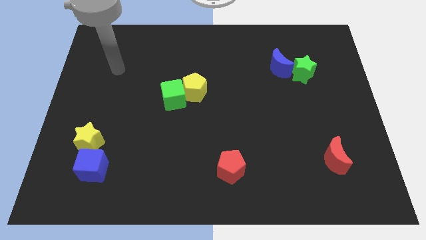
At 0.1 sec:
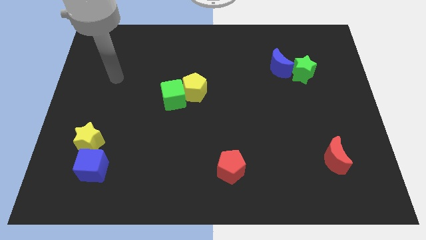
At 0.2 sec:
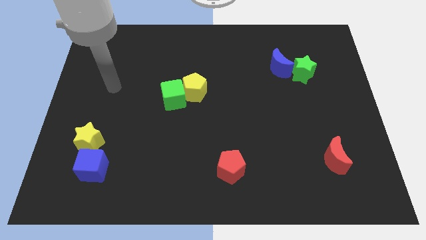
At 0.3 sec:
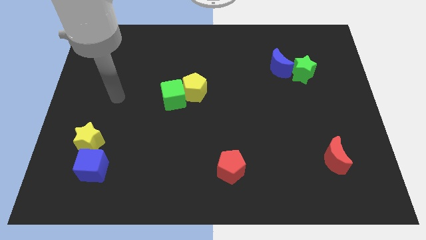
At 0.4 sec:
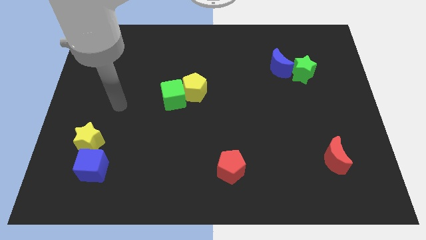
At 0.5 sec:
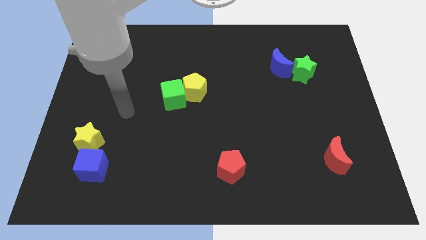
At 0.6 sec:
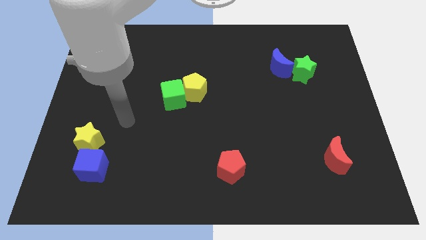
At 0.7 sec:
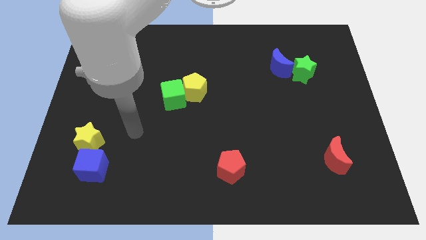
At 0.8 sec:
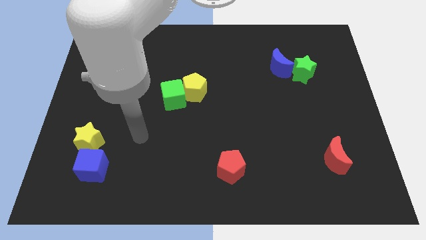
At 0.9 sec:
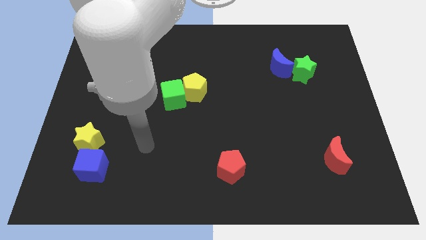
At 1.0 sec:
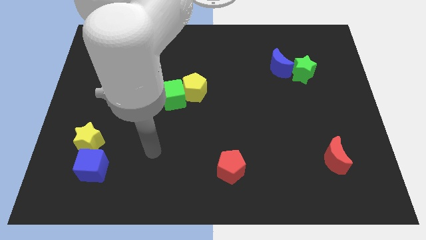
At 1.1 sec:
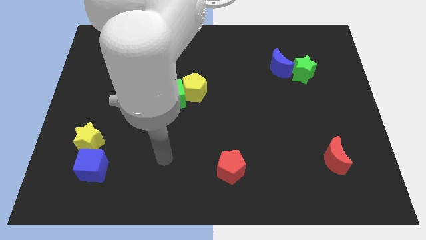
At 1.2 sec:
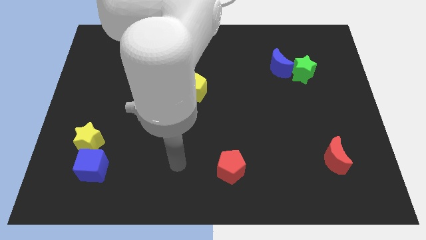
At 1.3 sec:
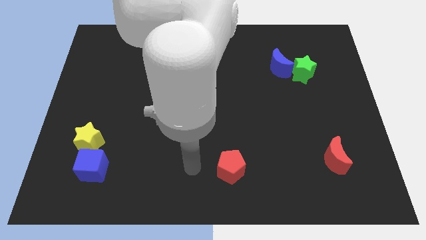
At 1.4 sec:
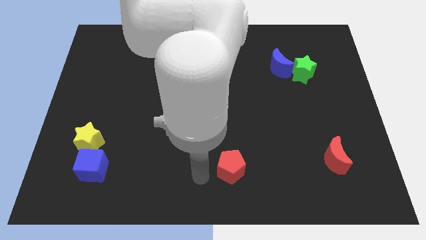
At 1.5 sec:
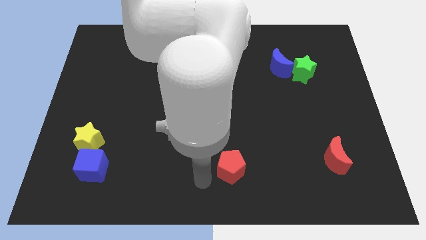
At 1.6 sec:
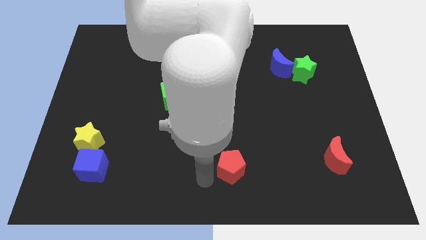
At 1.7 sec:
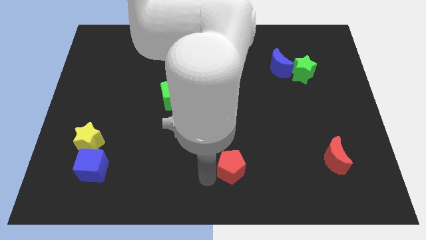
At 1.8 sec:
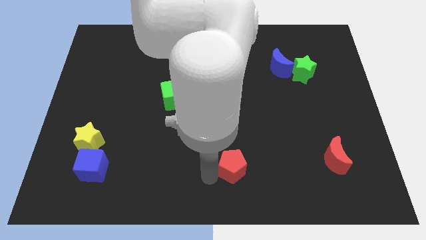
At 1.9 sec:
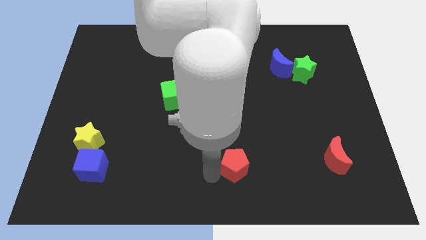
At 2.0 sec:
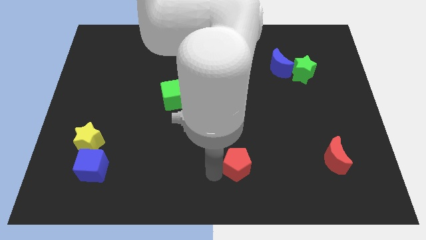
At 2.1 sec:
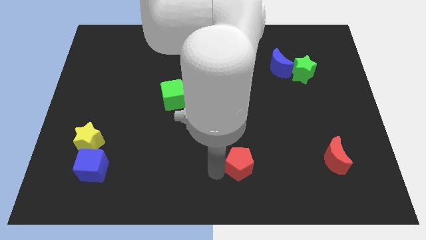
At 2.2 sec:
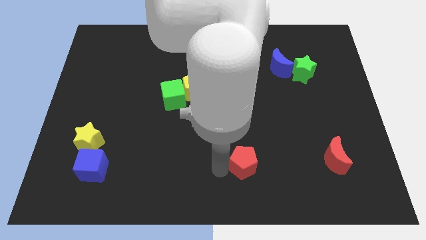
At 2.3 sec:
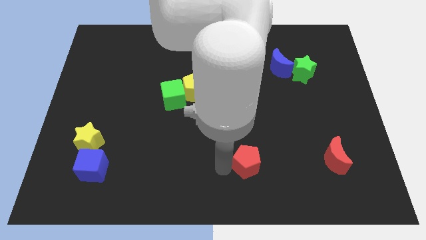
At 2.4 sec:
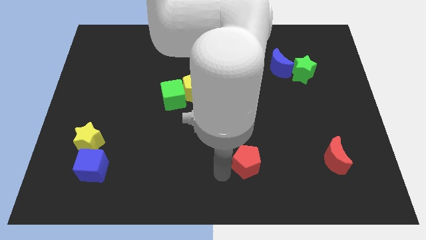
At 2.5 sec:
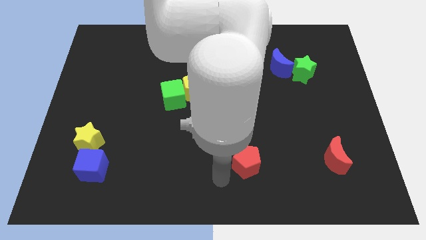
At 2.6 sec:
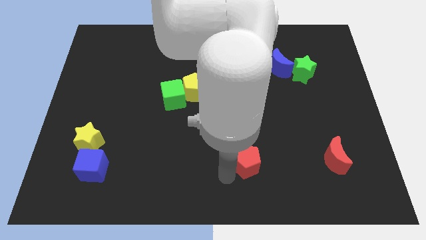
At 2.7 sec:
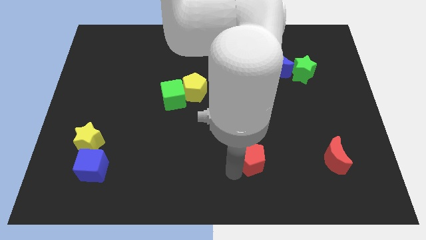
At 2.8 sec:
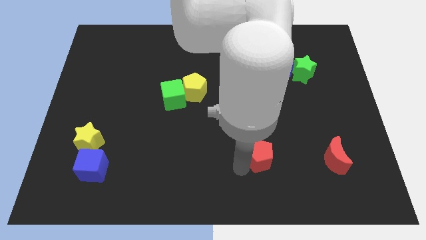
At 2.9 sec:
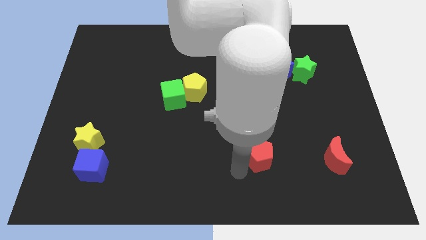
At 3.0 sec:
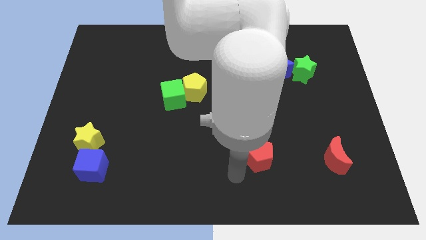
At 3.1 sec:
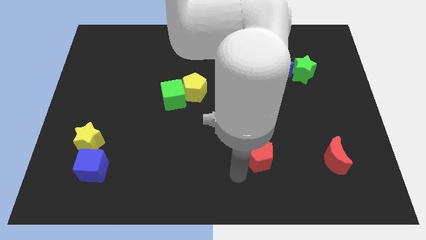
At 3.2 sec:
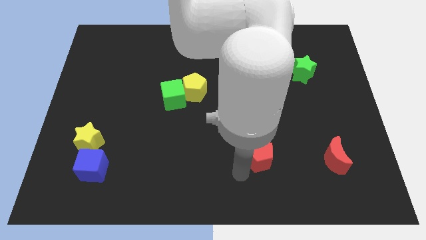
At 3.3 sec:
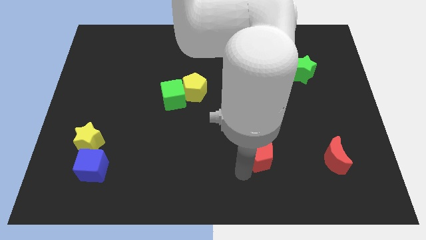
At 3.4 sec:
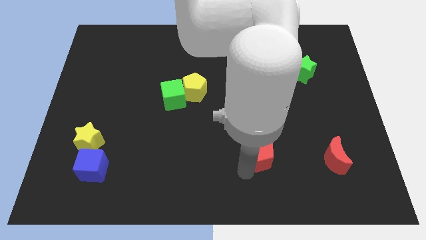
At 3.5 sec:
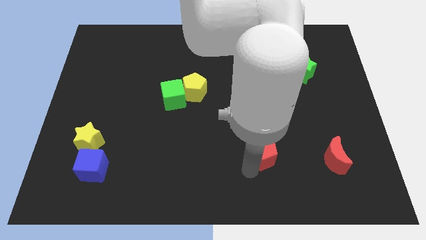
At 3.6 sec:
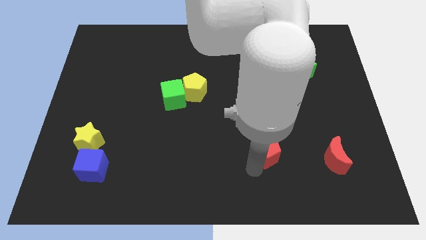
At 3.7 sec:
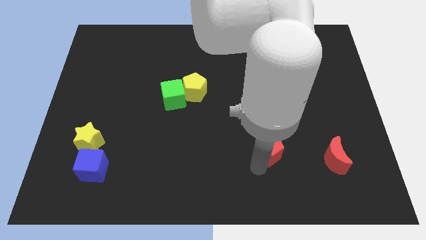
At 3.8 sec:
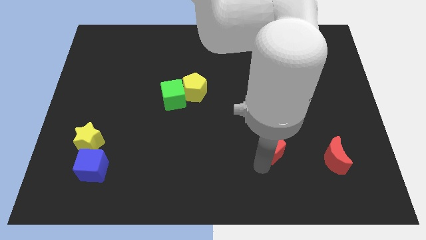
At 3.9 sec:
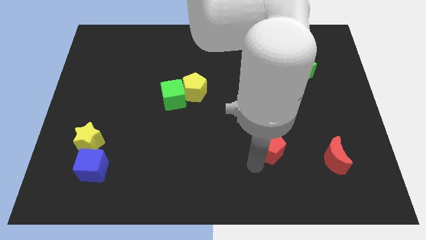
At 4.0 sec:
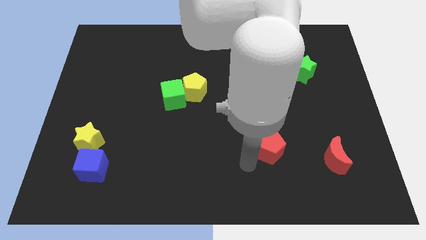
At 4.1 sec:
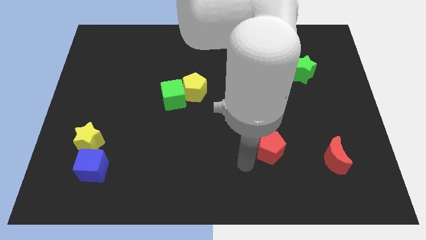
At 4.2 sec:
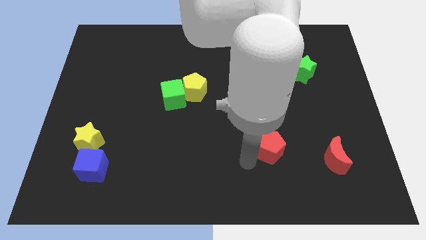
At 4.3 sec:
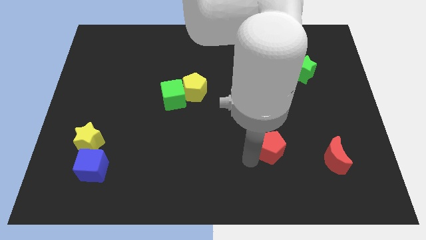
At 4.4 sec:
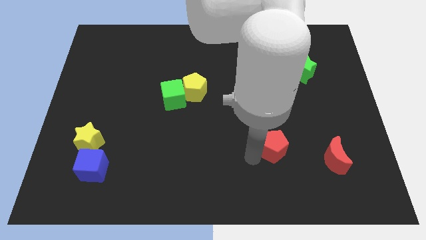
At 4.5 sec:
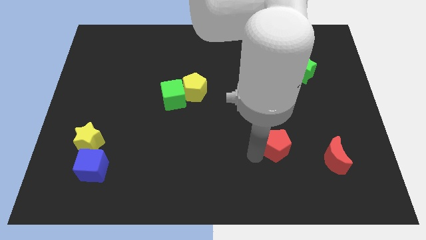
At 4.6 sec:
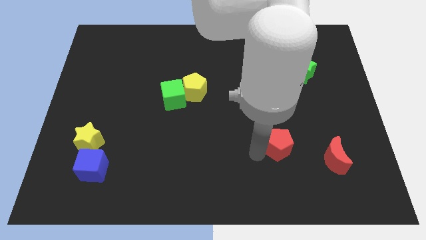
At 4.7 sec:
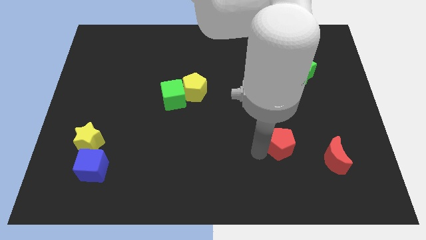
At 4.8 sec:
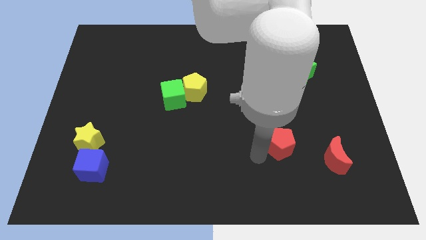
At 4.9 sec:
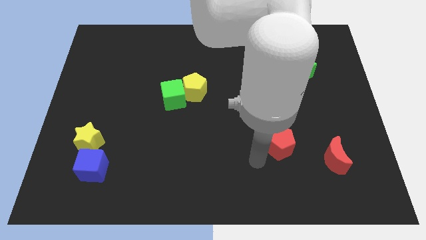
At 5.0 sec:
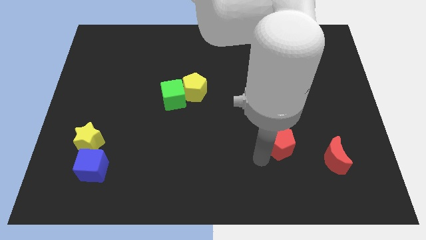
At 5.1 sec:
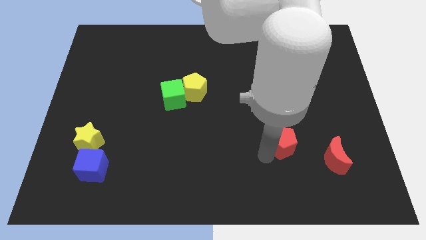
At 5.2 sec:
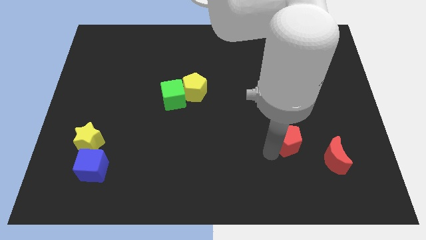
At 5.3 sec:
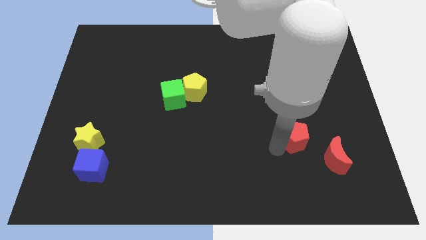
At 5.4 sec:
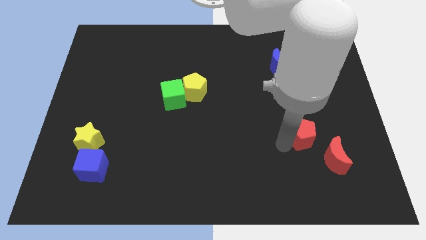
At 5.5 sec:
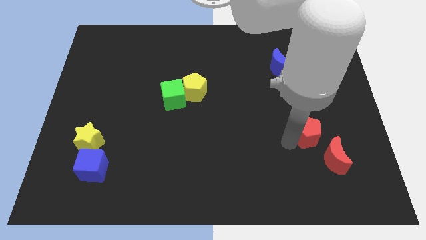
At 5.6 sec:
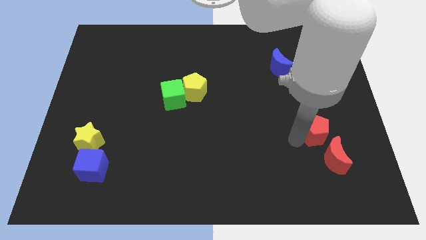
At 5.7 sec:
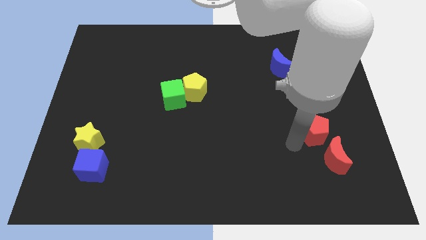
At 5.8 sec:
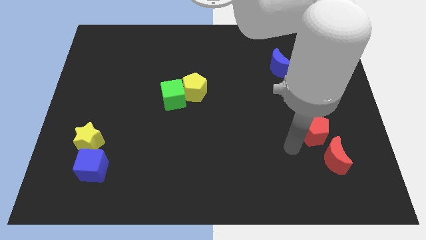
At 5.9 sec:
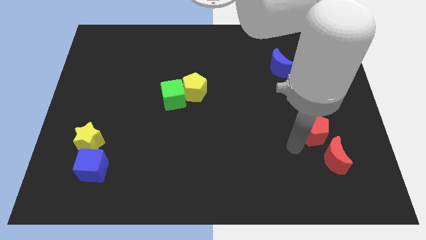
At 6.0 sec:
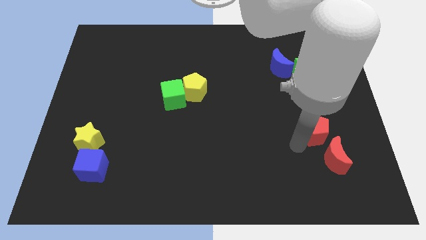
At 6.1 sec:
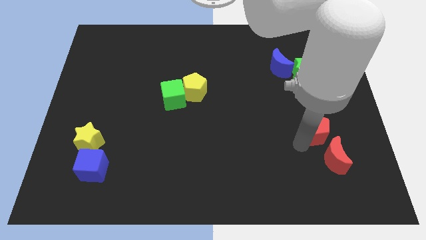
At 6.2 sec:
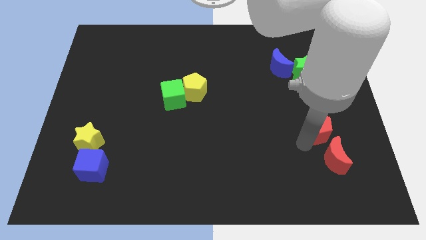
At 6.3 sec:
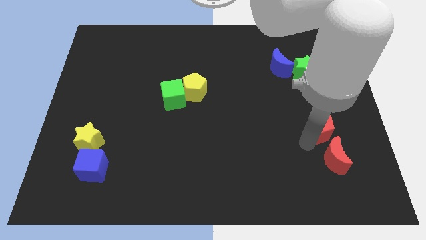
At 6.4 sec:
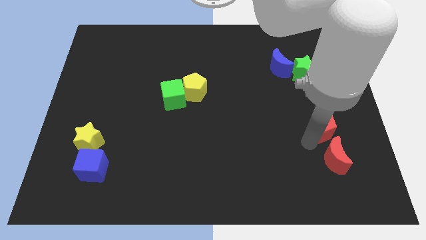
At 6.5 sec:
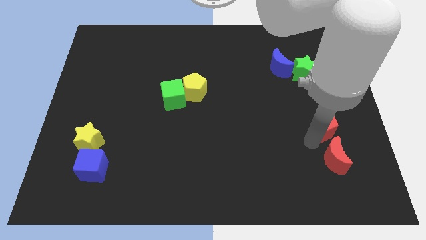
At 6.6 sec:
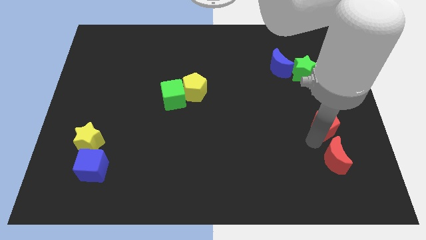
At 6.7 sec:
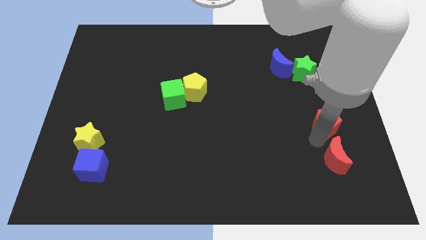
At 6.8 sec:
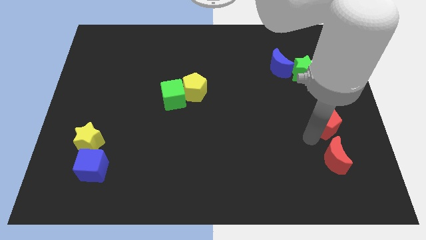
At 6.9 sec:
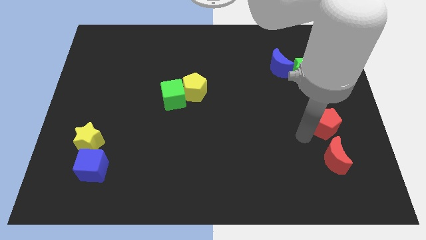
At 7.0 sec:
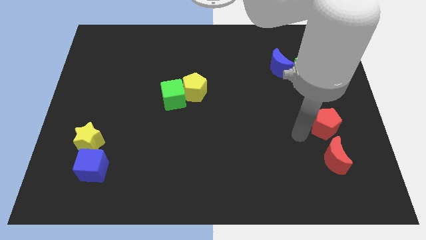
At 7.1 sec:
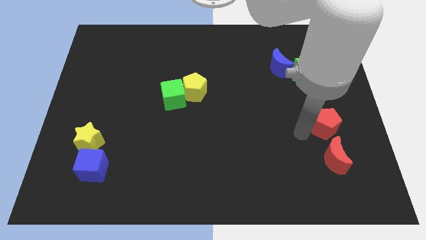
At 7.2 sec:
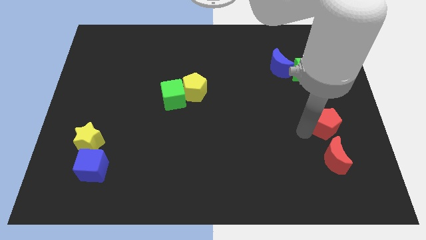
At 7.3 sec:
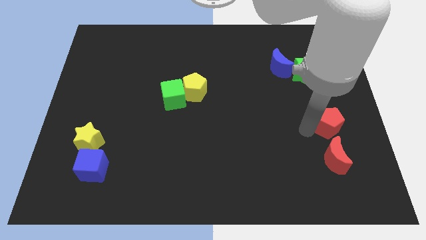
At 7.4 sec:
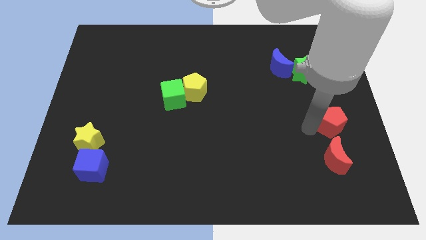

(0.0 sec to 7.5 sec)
slide the red pentagon to the right side
